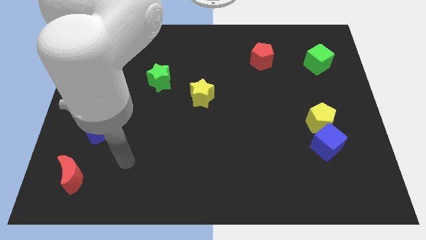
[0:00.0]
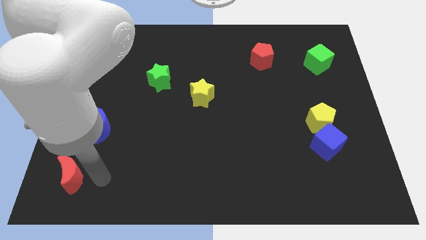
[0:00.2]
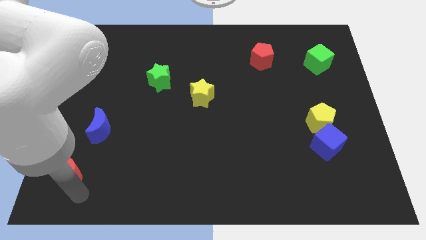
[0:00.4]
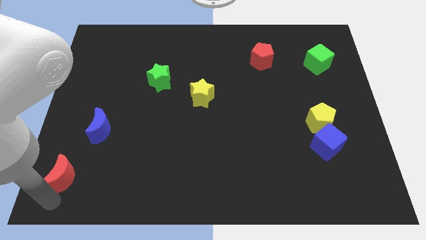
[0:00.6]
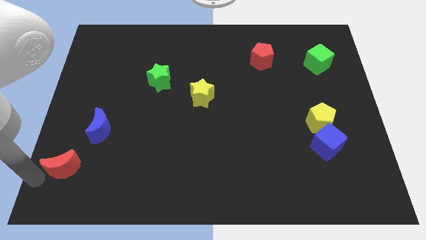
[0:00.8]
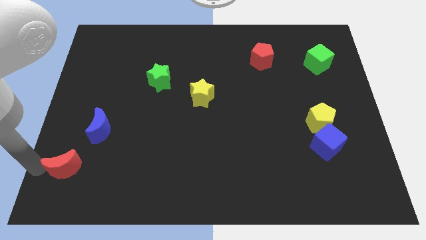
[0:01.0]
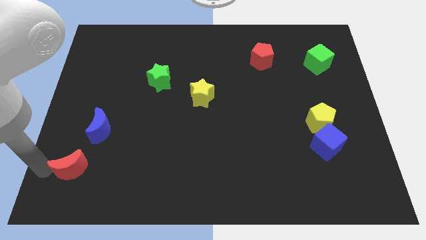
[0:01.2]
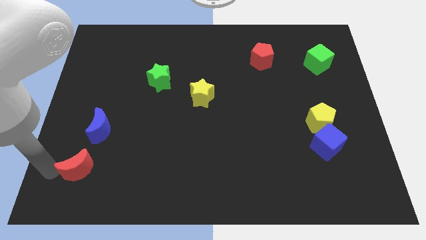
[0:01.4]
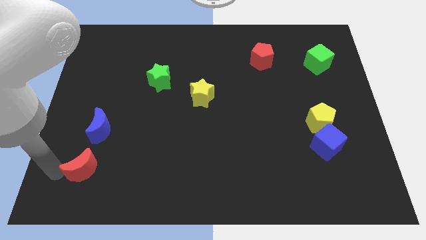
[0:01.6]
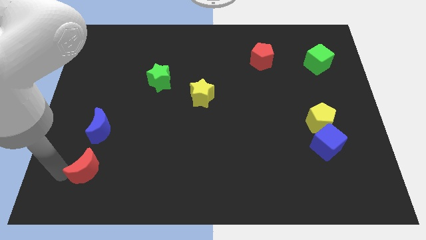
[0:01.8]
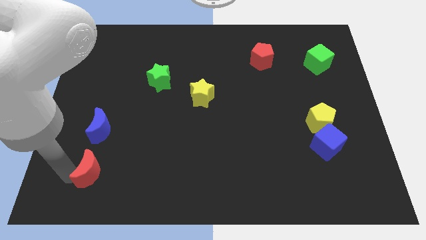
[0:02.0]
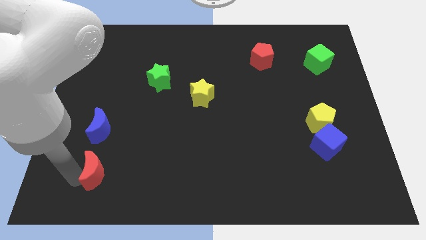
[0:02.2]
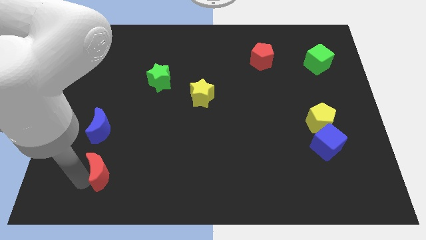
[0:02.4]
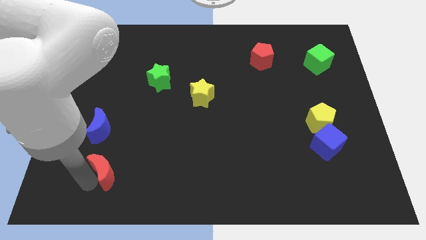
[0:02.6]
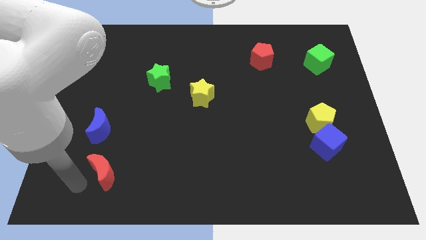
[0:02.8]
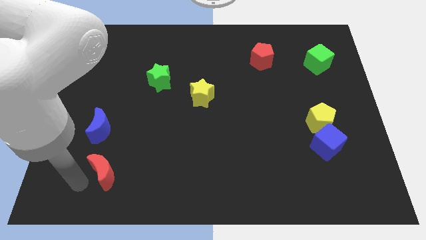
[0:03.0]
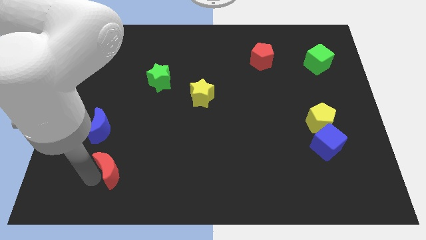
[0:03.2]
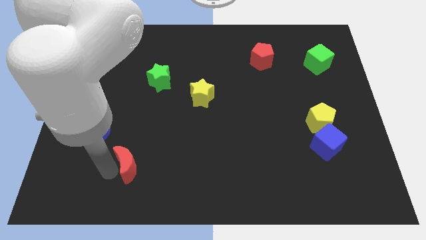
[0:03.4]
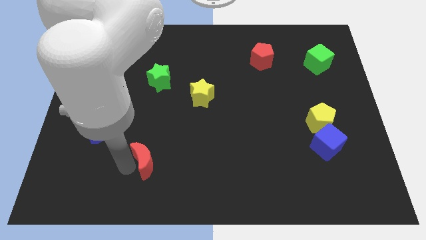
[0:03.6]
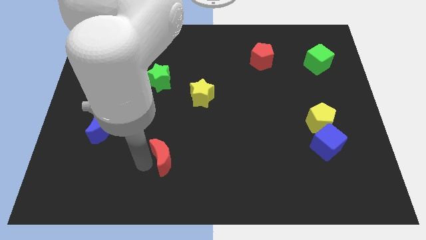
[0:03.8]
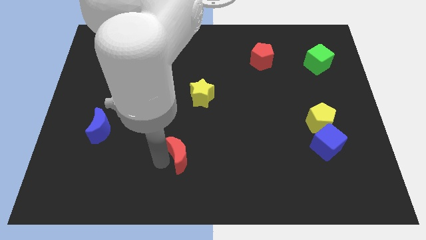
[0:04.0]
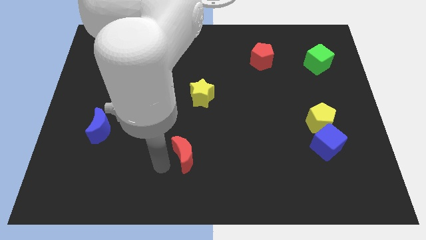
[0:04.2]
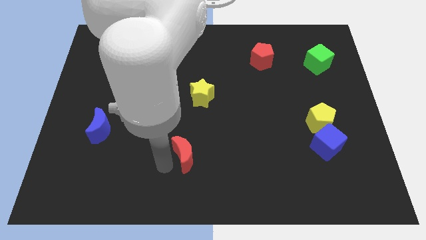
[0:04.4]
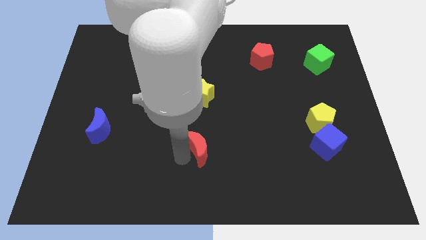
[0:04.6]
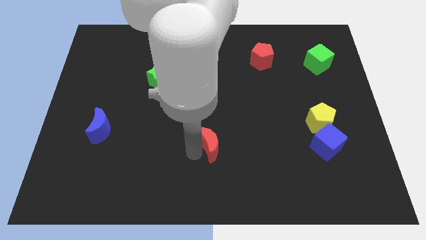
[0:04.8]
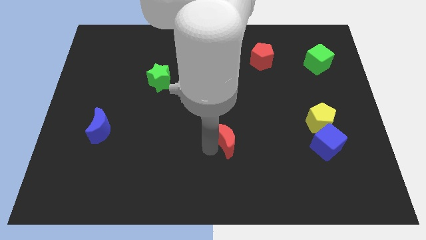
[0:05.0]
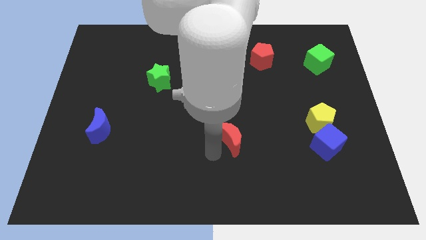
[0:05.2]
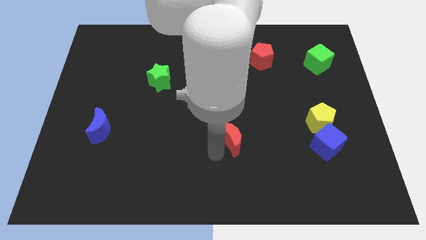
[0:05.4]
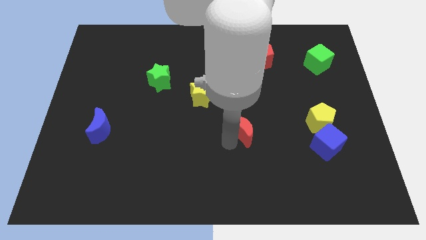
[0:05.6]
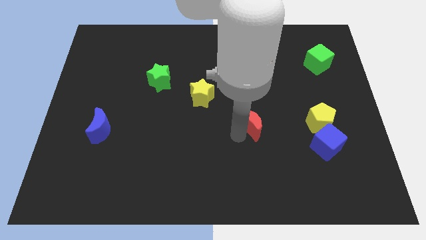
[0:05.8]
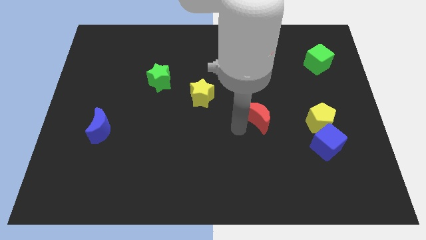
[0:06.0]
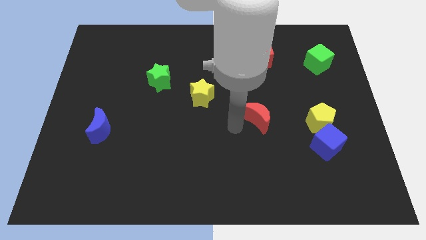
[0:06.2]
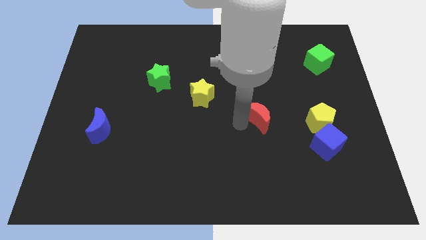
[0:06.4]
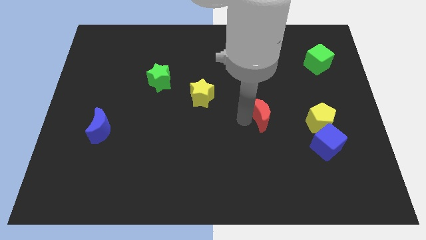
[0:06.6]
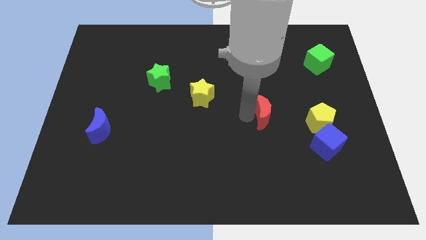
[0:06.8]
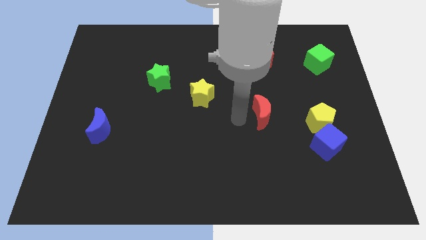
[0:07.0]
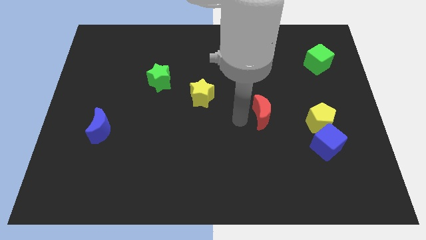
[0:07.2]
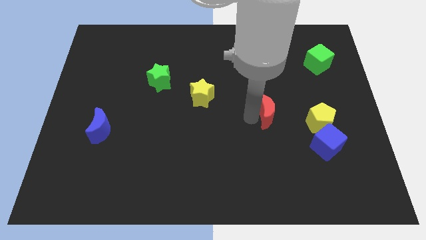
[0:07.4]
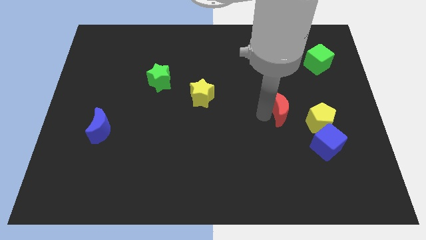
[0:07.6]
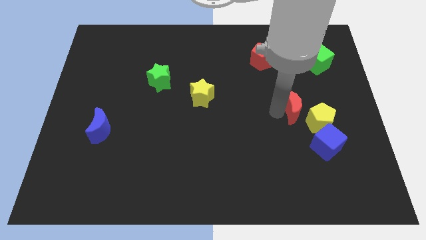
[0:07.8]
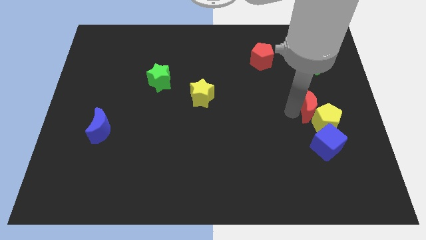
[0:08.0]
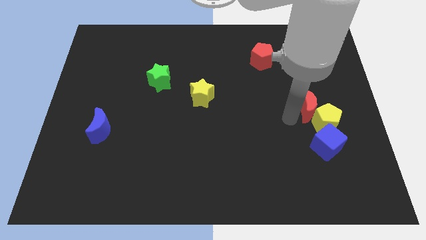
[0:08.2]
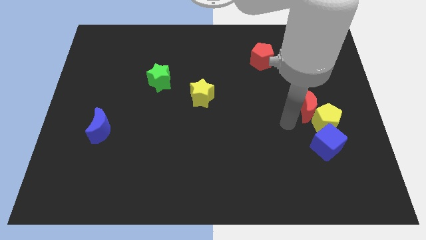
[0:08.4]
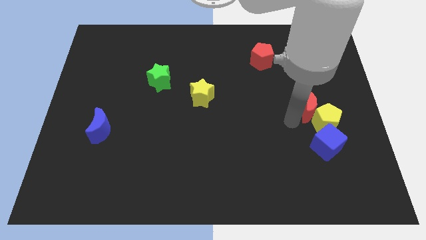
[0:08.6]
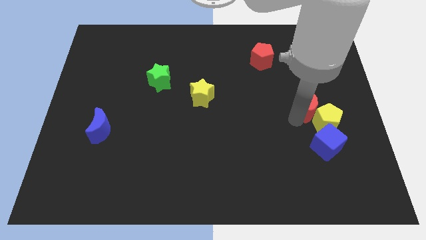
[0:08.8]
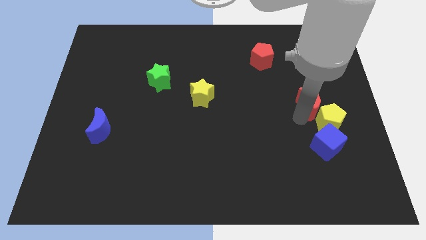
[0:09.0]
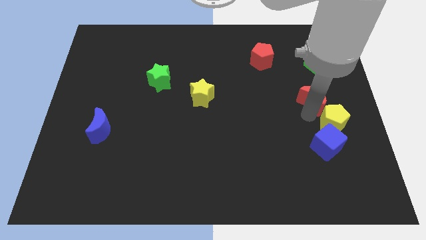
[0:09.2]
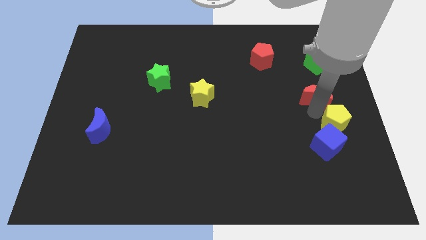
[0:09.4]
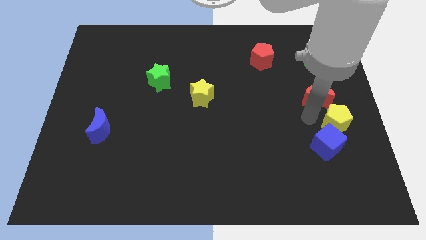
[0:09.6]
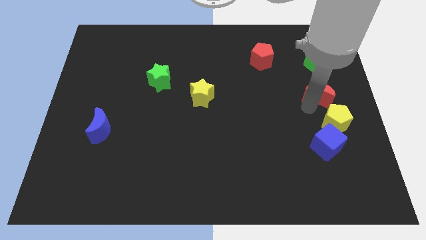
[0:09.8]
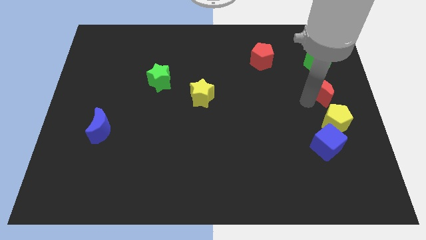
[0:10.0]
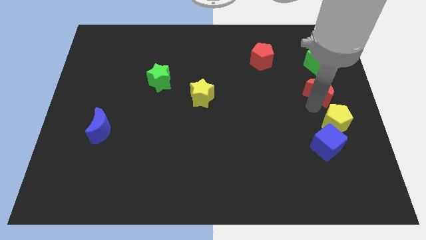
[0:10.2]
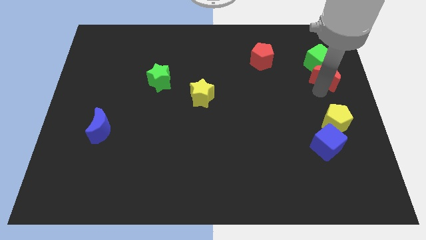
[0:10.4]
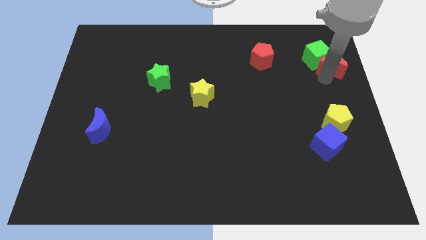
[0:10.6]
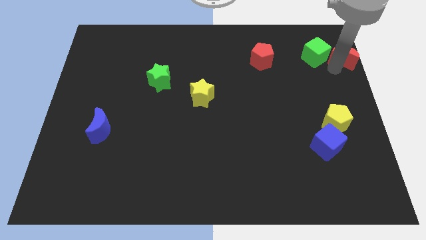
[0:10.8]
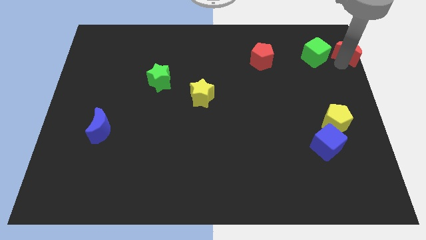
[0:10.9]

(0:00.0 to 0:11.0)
slide the red moon to the top right

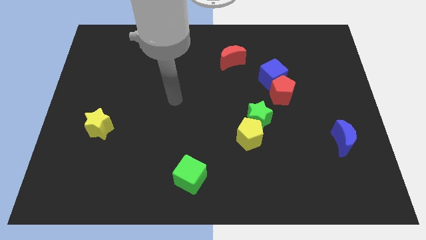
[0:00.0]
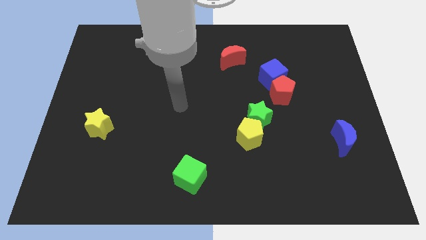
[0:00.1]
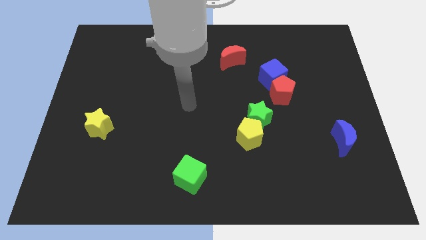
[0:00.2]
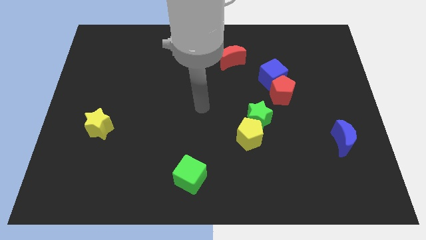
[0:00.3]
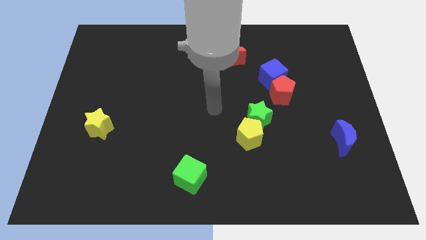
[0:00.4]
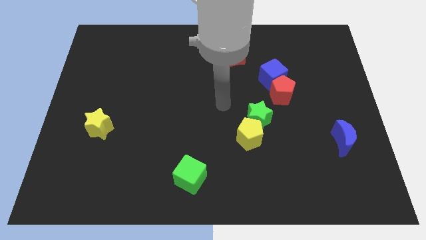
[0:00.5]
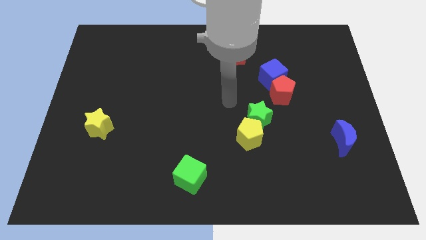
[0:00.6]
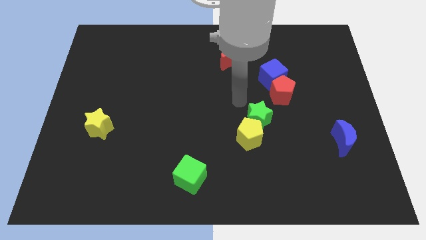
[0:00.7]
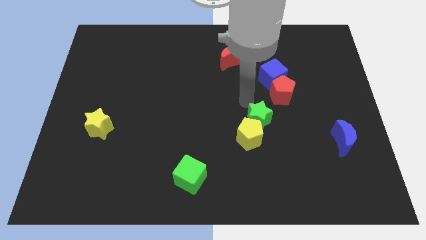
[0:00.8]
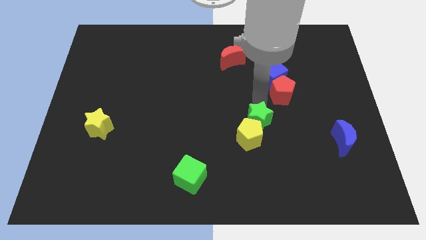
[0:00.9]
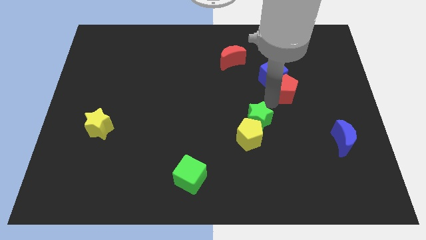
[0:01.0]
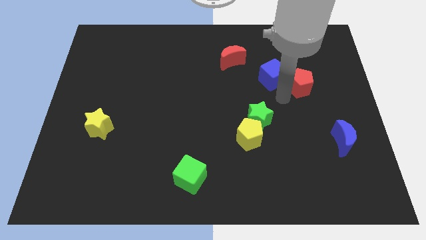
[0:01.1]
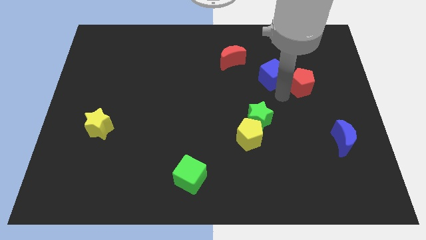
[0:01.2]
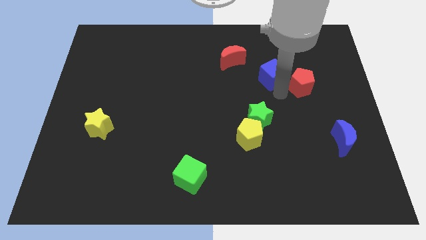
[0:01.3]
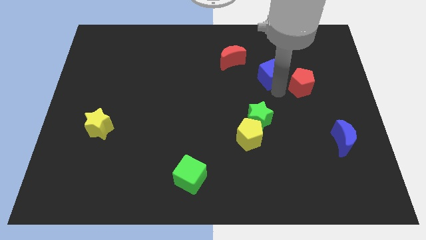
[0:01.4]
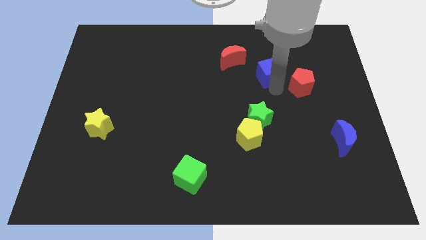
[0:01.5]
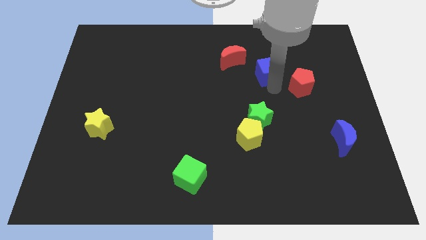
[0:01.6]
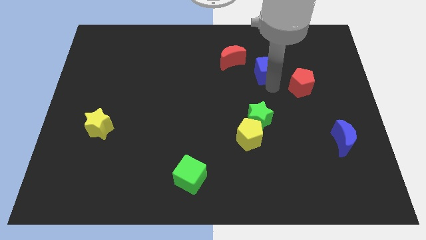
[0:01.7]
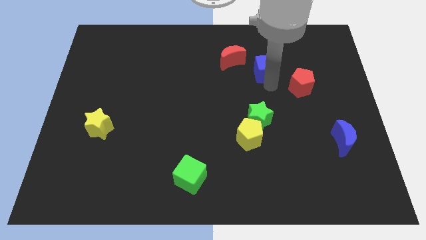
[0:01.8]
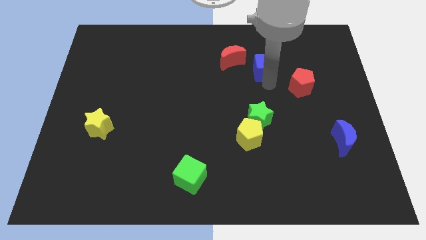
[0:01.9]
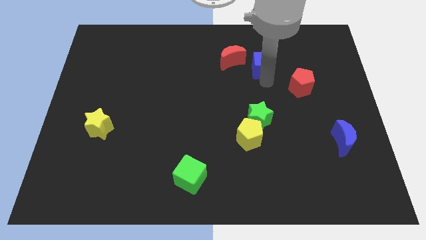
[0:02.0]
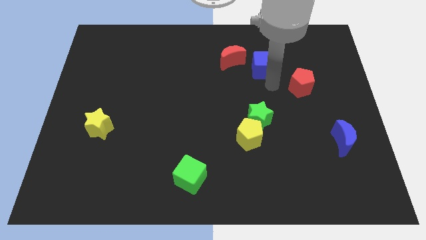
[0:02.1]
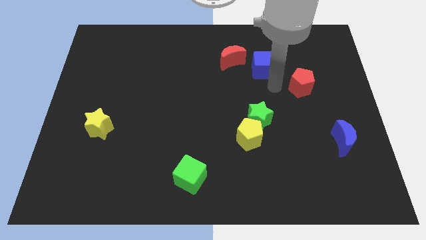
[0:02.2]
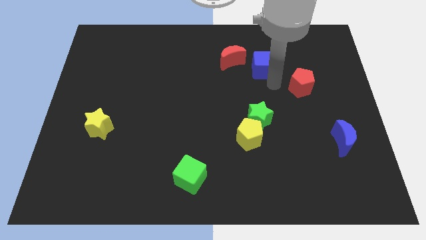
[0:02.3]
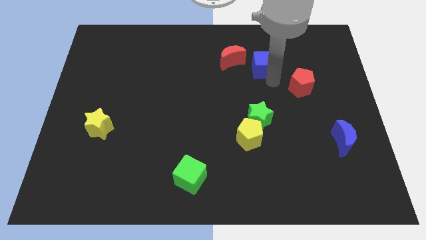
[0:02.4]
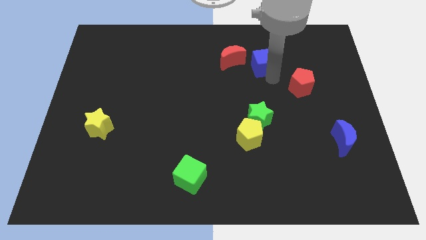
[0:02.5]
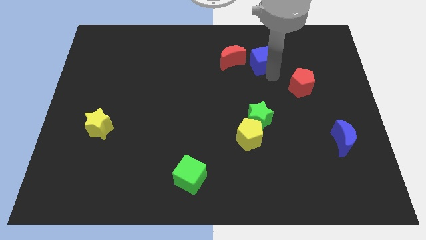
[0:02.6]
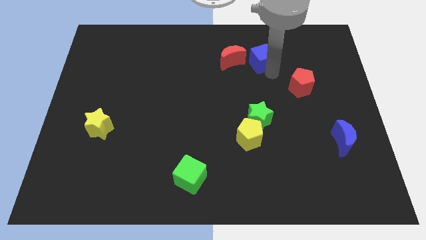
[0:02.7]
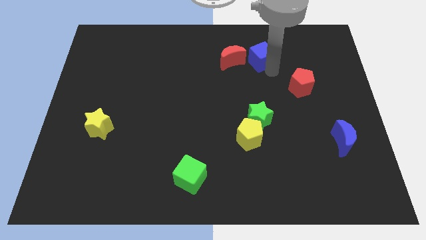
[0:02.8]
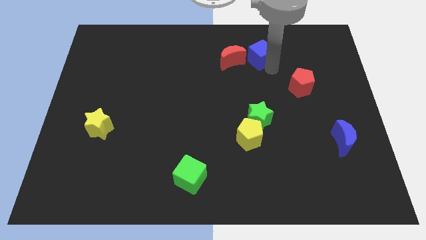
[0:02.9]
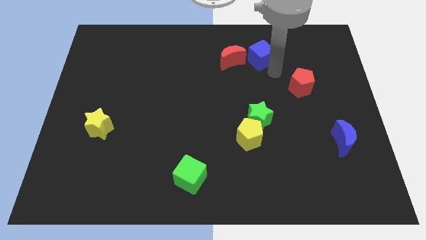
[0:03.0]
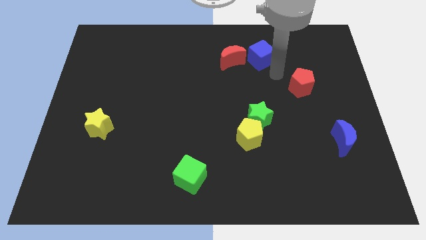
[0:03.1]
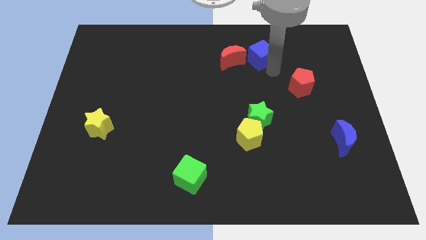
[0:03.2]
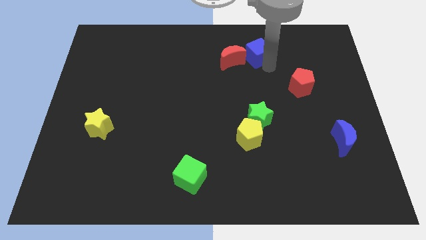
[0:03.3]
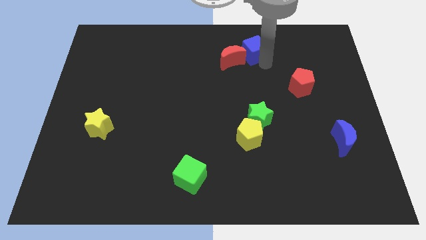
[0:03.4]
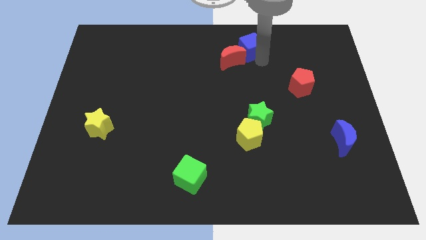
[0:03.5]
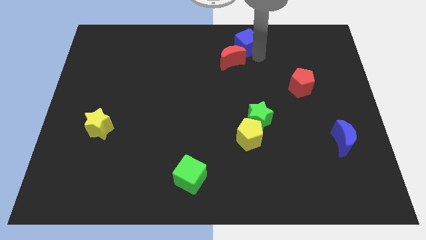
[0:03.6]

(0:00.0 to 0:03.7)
move the blue cube to the top
